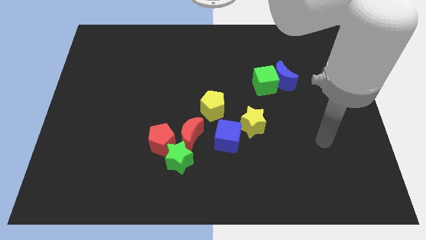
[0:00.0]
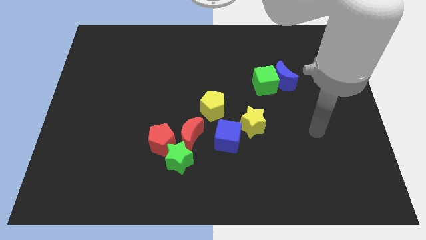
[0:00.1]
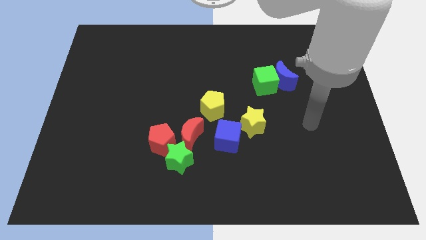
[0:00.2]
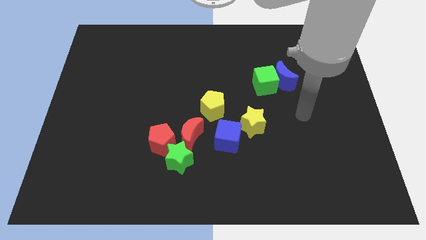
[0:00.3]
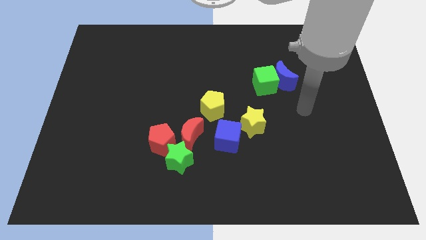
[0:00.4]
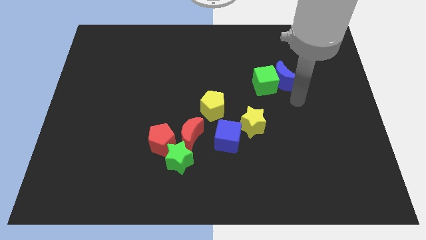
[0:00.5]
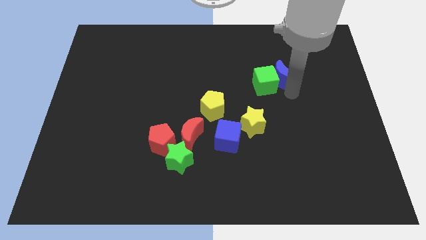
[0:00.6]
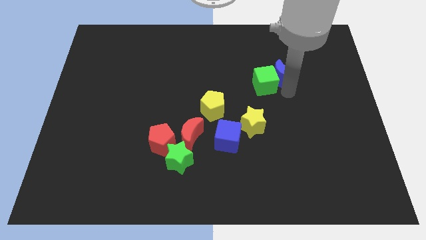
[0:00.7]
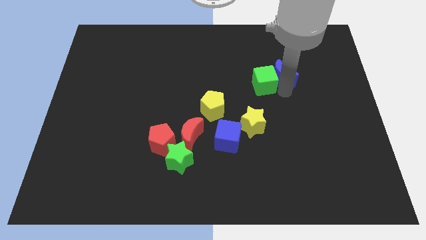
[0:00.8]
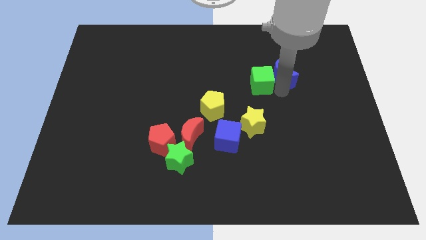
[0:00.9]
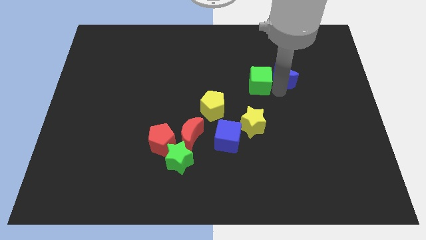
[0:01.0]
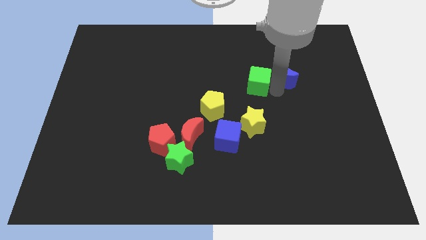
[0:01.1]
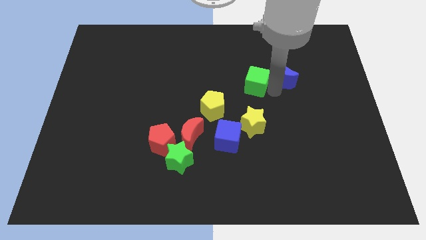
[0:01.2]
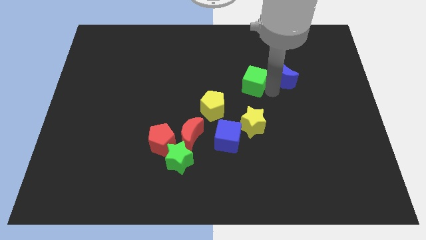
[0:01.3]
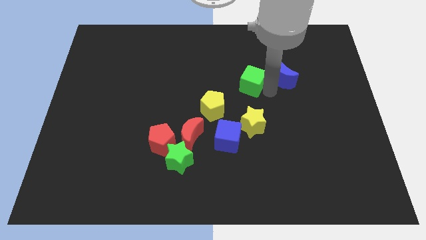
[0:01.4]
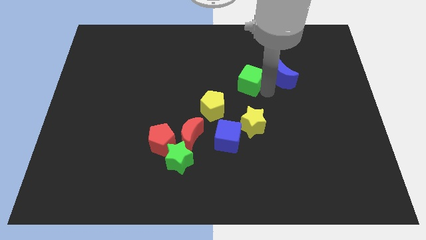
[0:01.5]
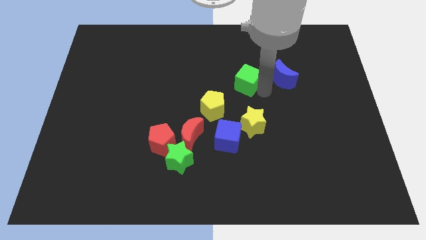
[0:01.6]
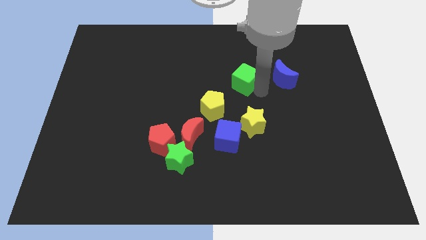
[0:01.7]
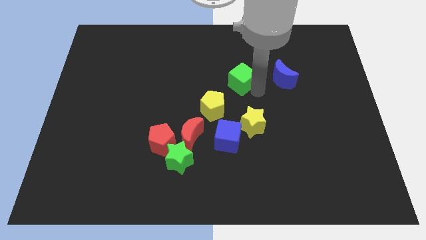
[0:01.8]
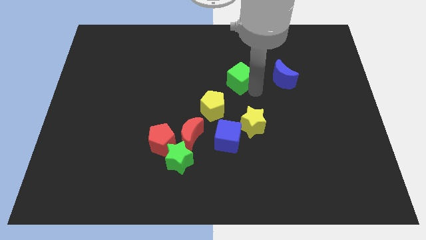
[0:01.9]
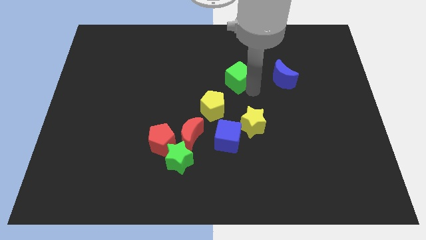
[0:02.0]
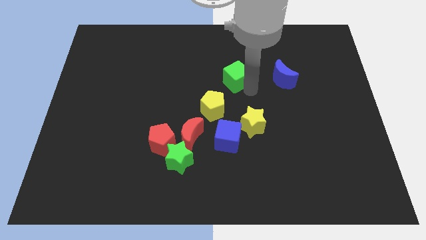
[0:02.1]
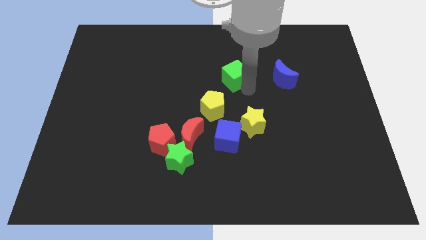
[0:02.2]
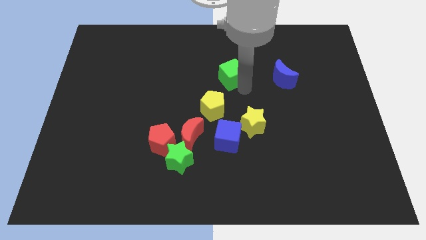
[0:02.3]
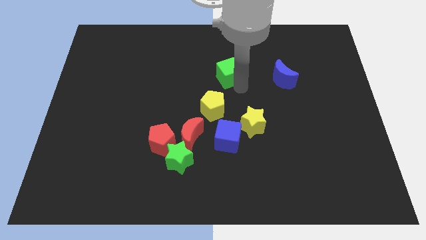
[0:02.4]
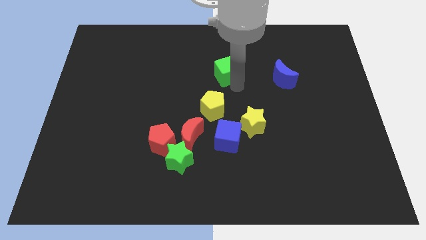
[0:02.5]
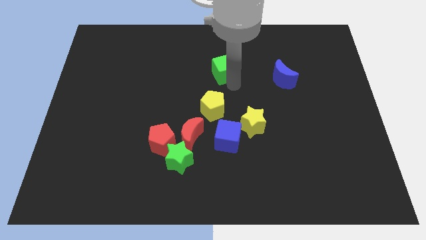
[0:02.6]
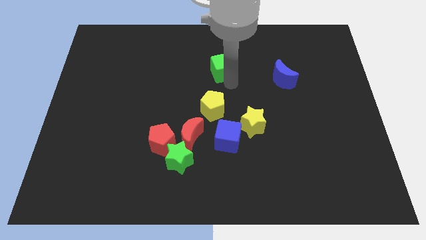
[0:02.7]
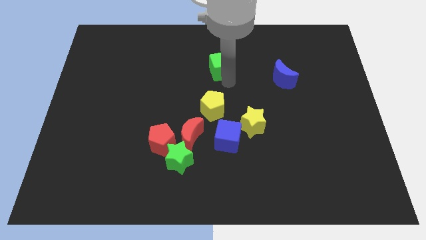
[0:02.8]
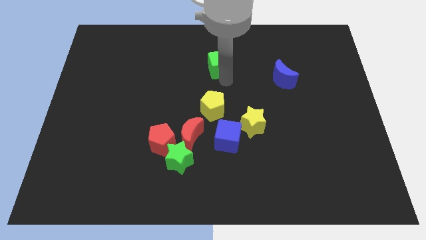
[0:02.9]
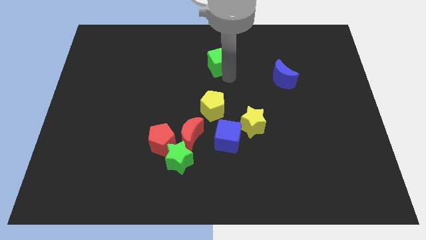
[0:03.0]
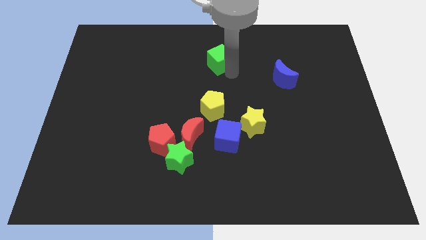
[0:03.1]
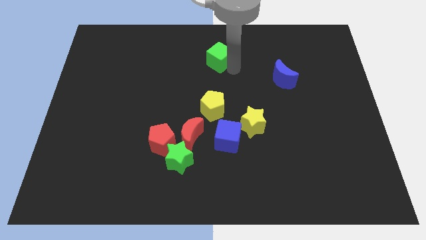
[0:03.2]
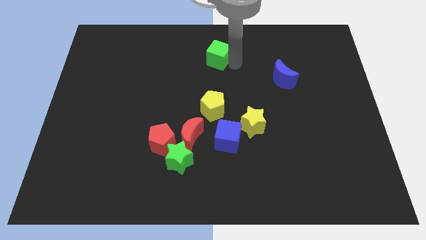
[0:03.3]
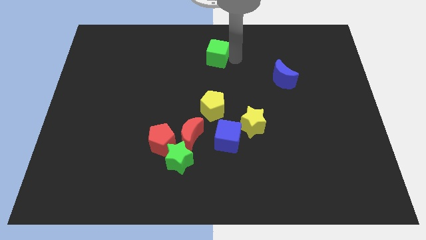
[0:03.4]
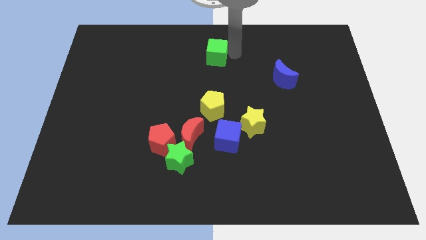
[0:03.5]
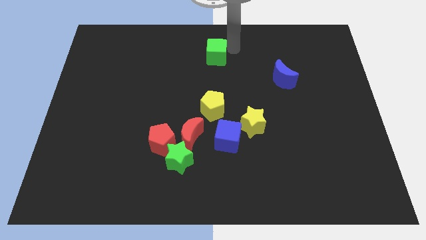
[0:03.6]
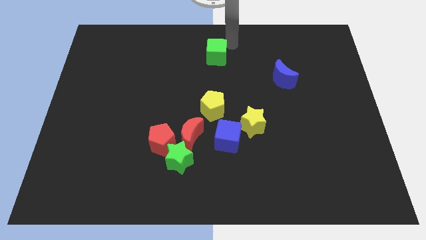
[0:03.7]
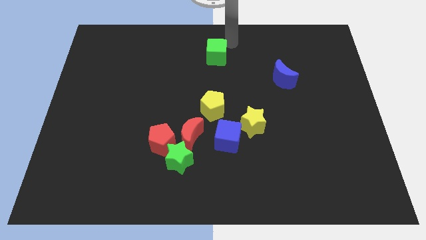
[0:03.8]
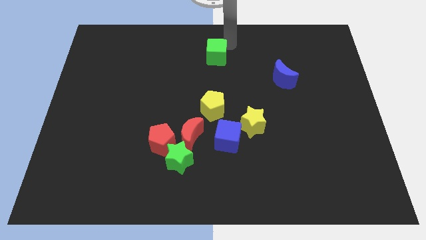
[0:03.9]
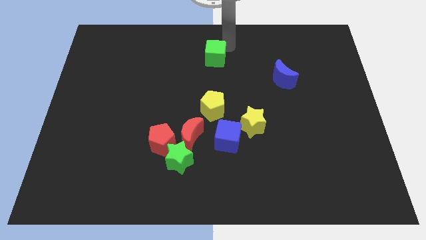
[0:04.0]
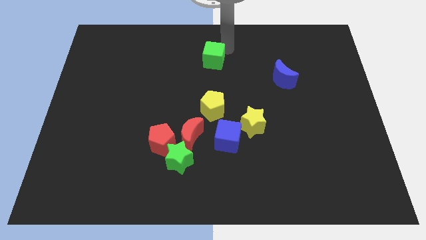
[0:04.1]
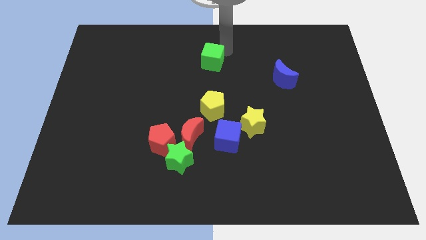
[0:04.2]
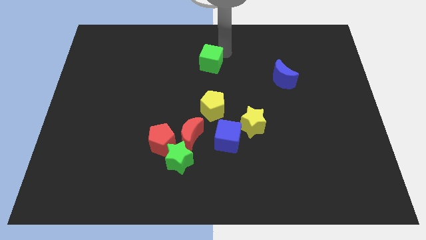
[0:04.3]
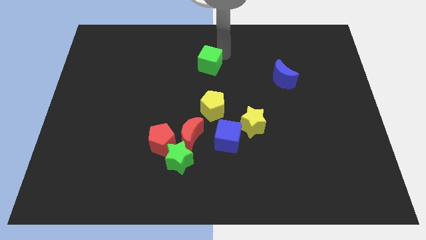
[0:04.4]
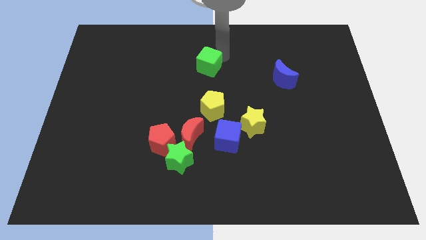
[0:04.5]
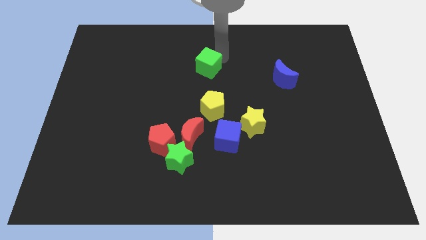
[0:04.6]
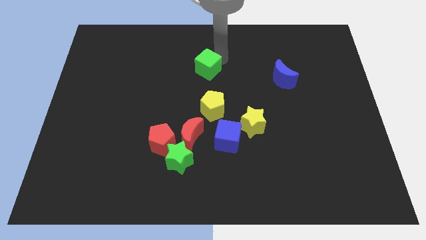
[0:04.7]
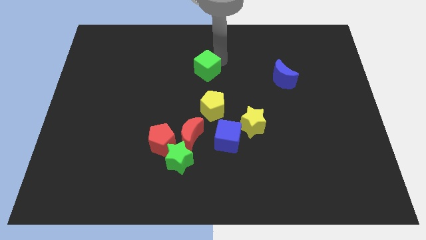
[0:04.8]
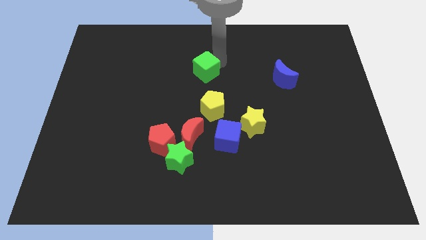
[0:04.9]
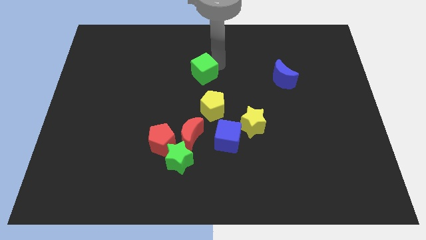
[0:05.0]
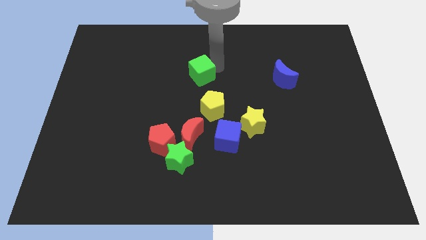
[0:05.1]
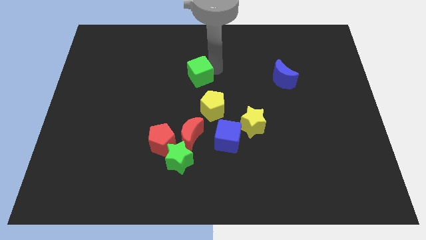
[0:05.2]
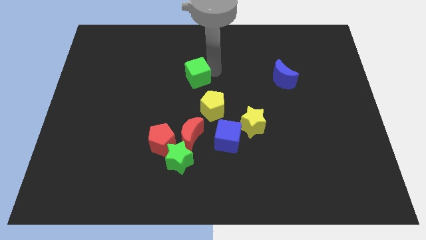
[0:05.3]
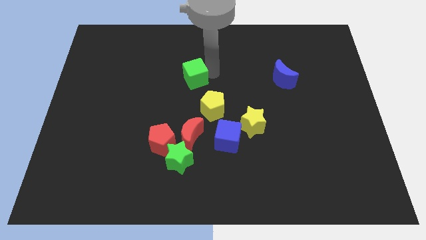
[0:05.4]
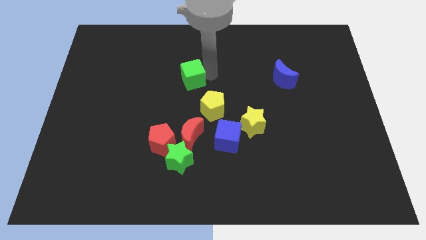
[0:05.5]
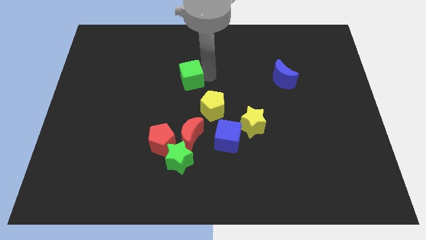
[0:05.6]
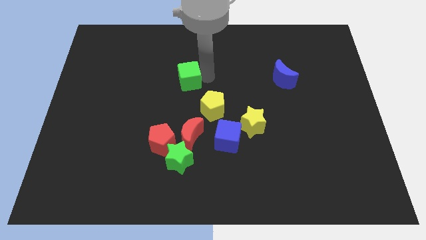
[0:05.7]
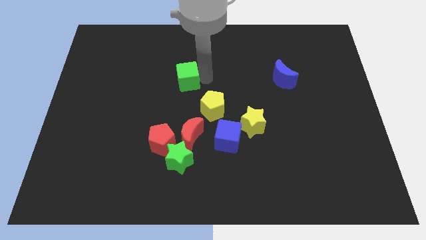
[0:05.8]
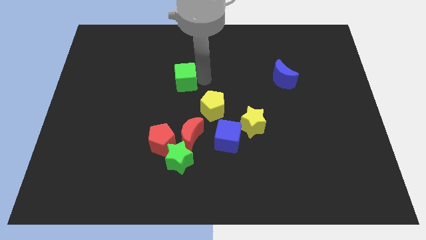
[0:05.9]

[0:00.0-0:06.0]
move the green cube left

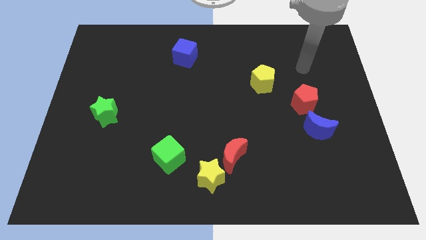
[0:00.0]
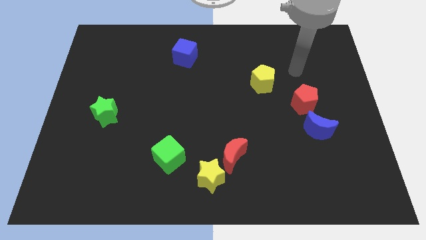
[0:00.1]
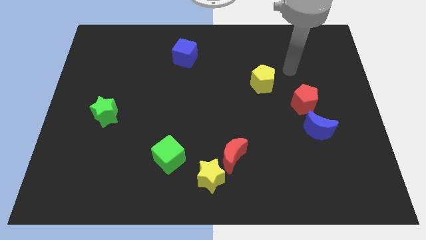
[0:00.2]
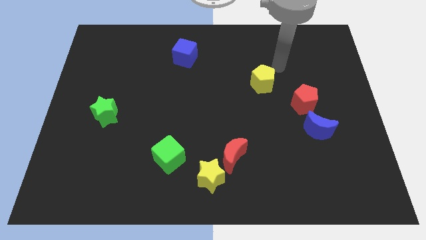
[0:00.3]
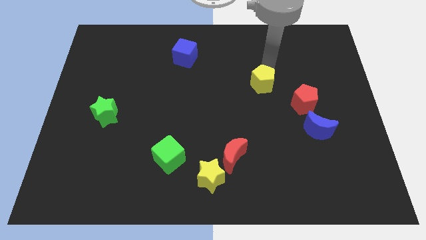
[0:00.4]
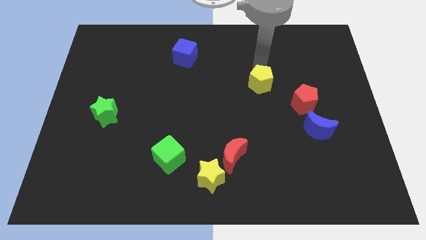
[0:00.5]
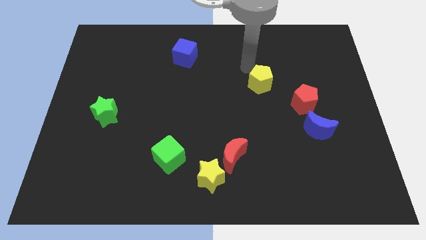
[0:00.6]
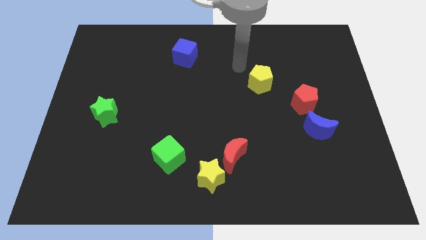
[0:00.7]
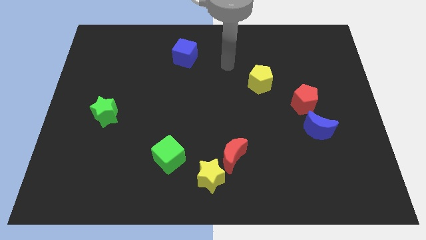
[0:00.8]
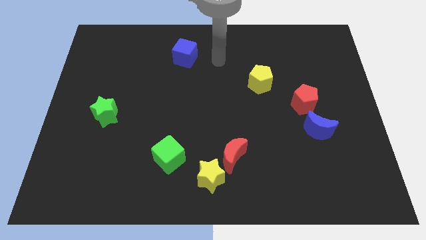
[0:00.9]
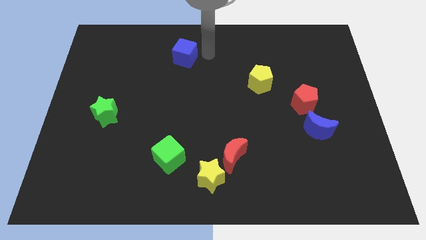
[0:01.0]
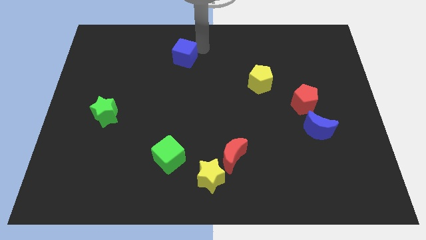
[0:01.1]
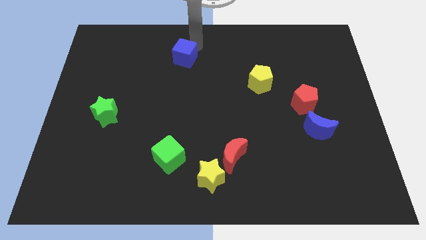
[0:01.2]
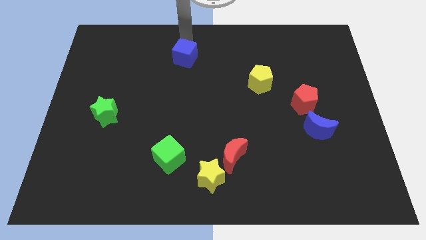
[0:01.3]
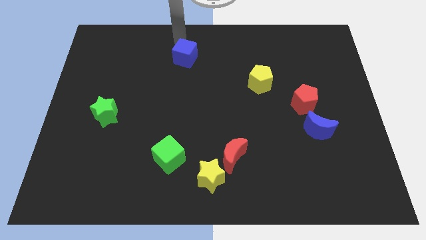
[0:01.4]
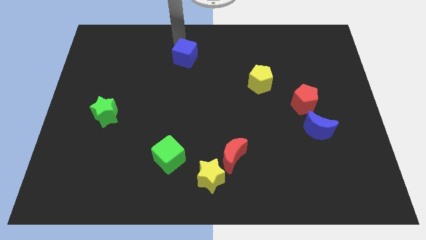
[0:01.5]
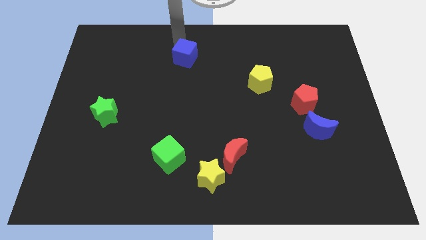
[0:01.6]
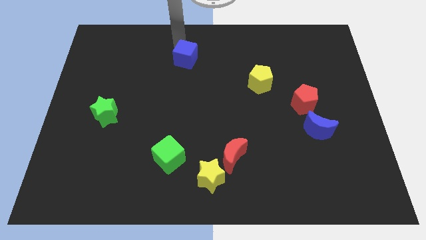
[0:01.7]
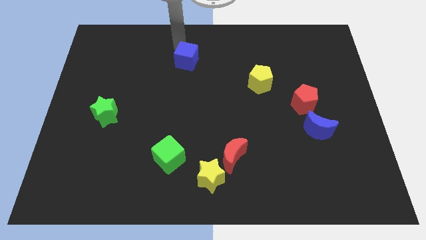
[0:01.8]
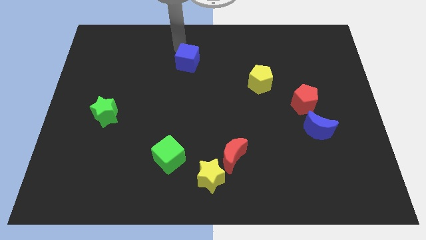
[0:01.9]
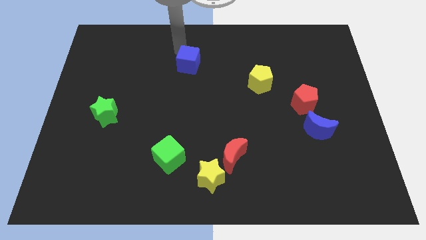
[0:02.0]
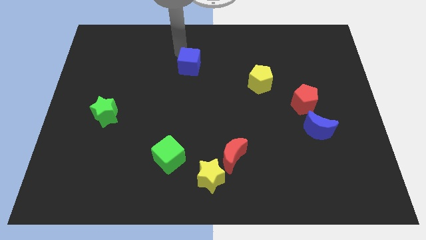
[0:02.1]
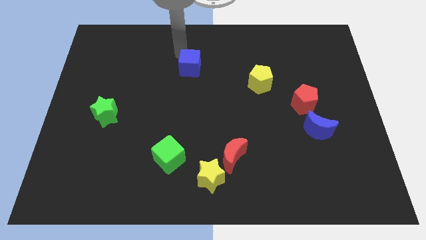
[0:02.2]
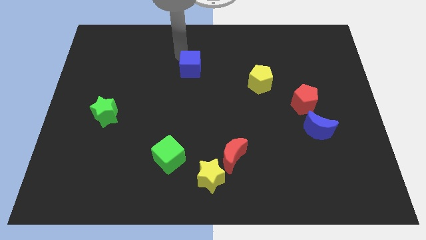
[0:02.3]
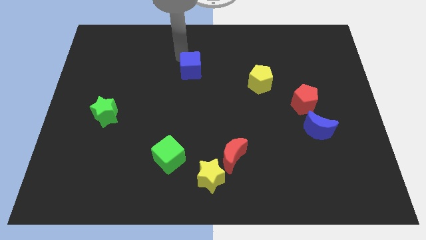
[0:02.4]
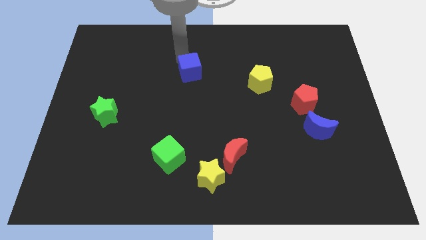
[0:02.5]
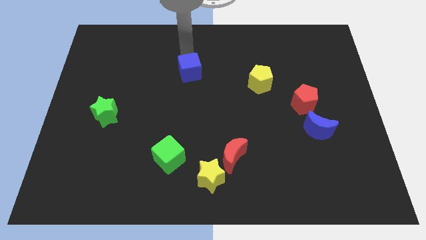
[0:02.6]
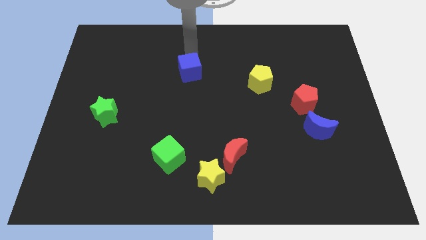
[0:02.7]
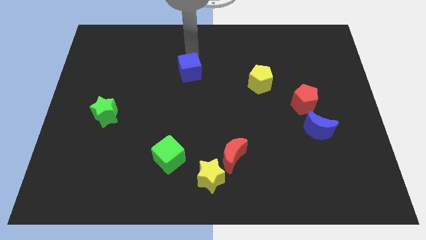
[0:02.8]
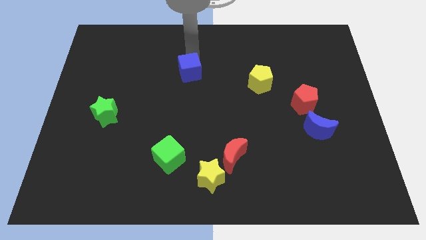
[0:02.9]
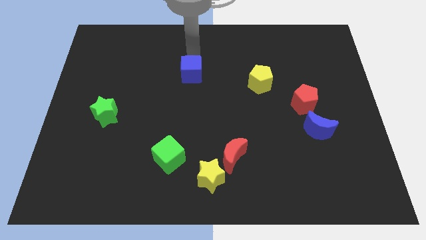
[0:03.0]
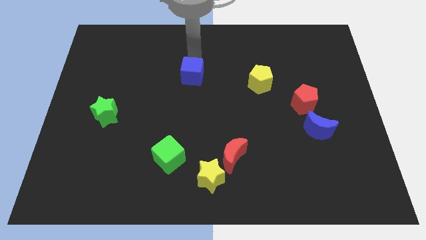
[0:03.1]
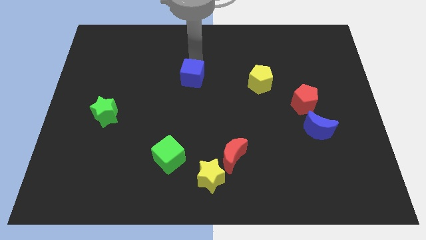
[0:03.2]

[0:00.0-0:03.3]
push the blue cube downwards somewhat
